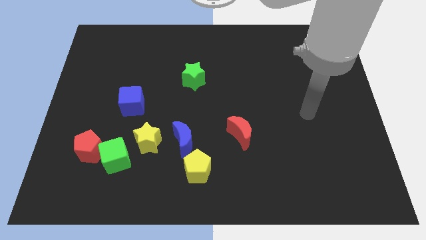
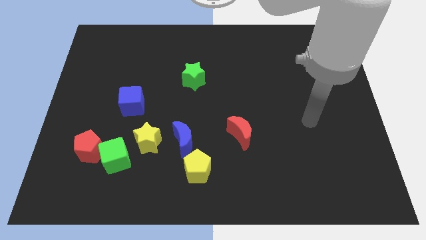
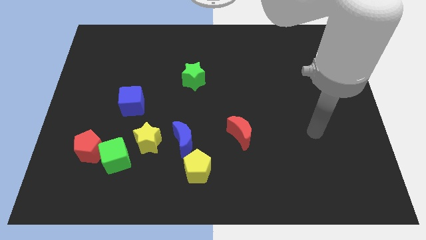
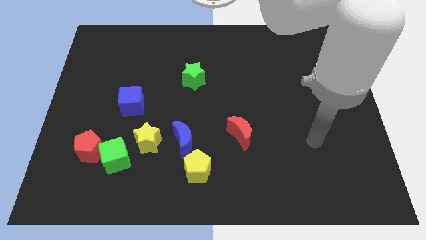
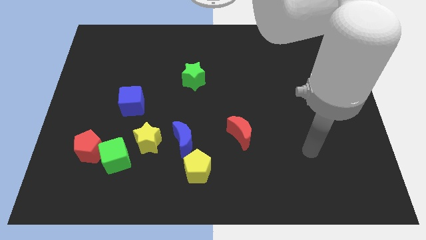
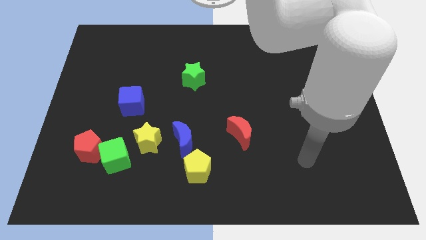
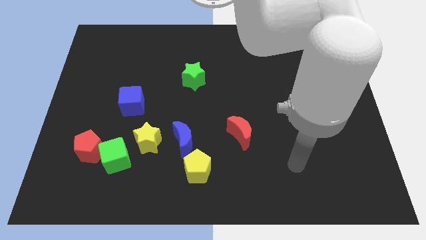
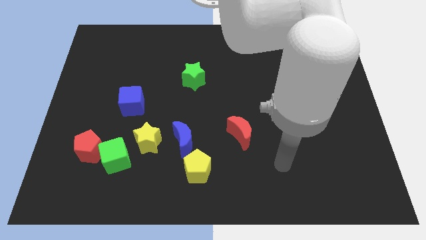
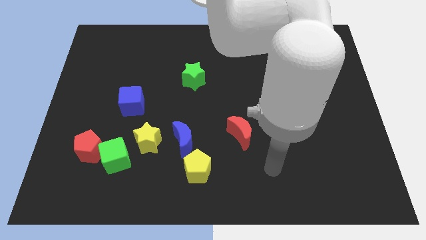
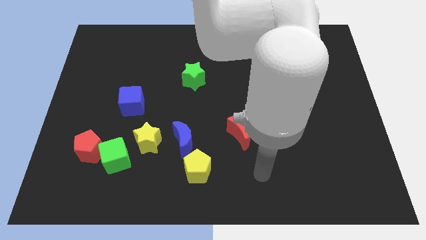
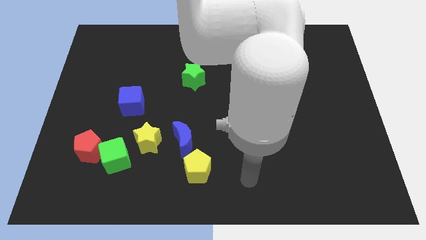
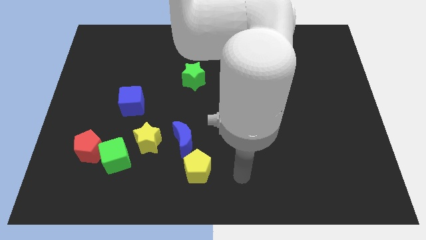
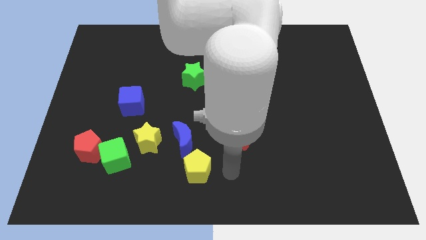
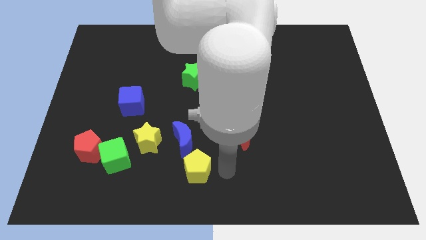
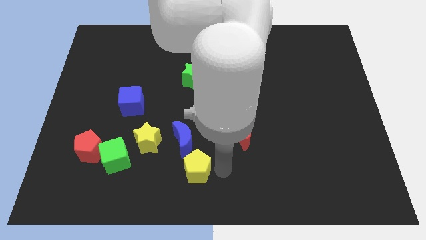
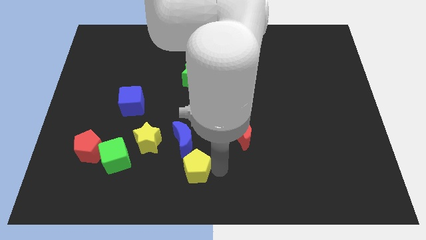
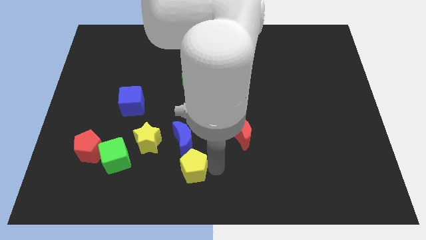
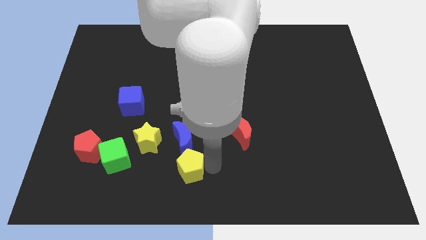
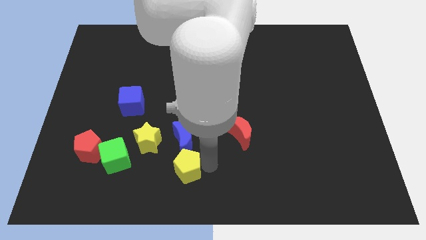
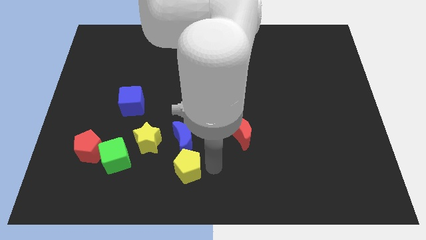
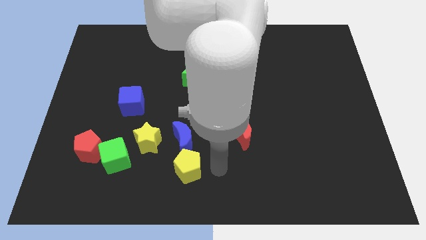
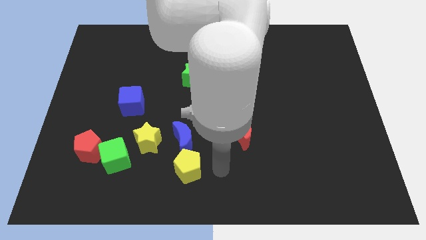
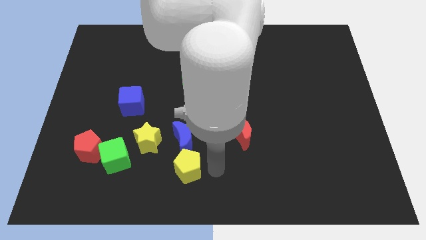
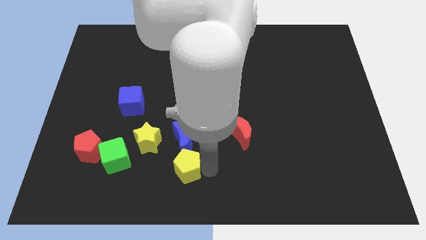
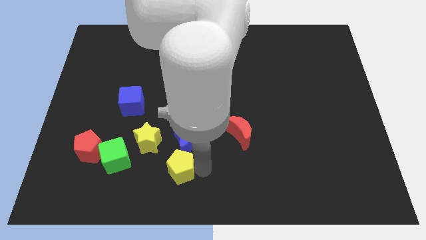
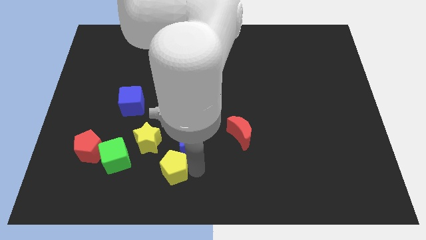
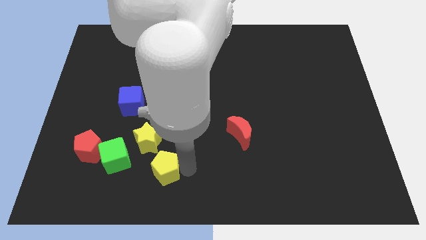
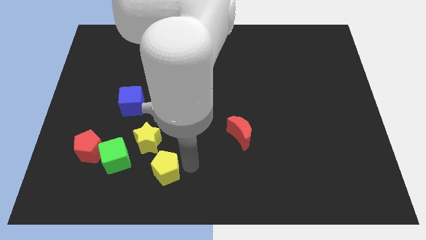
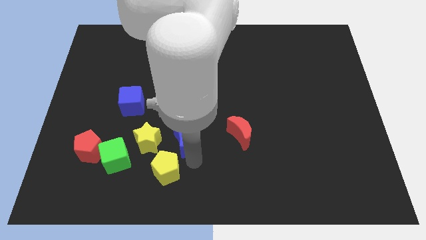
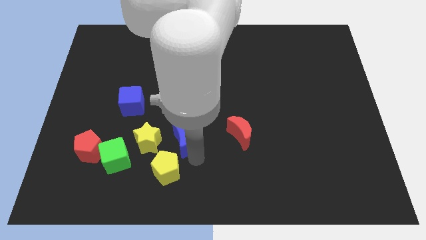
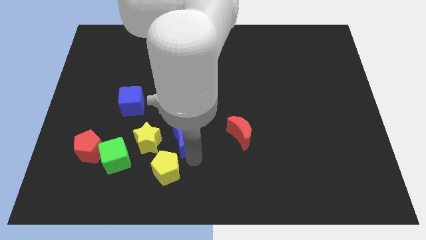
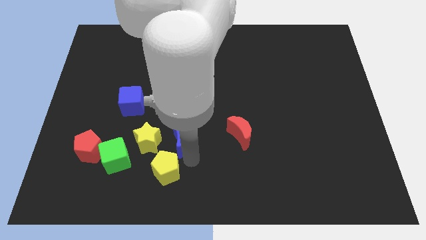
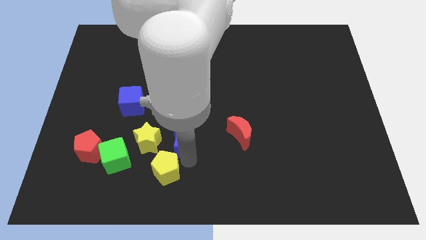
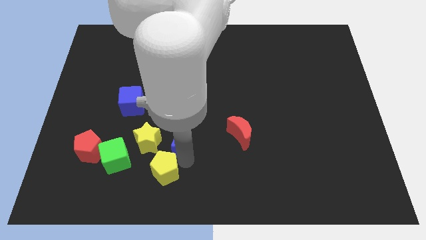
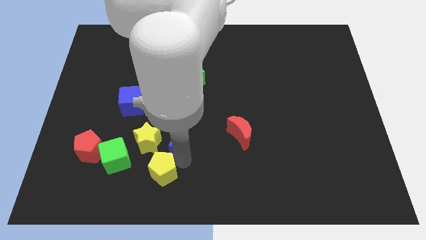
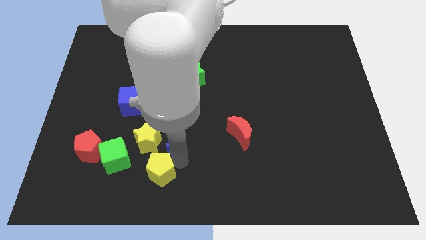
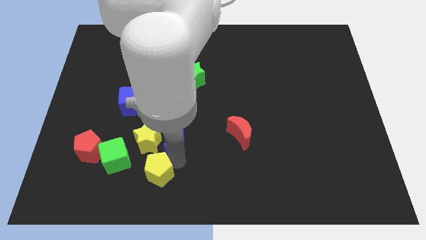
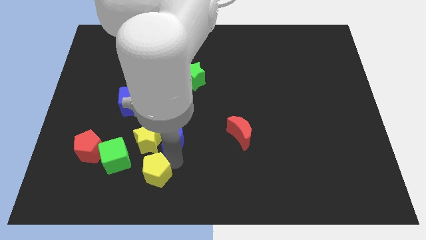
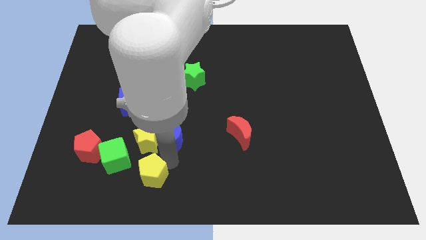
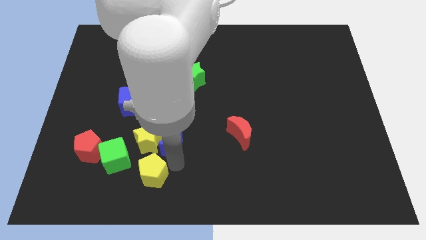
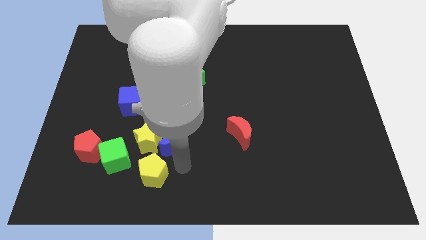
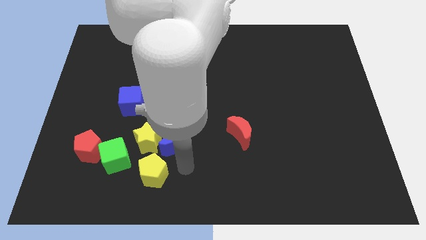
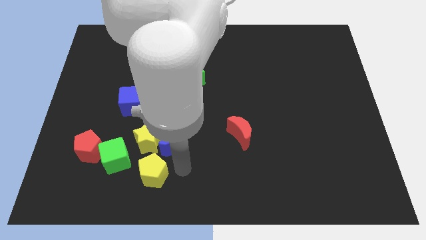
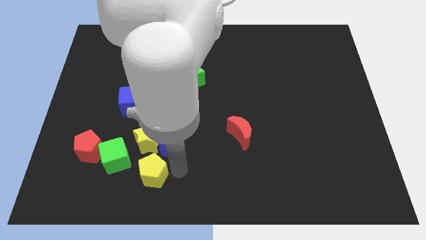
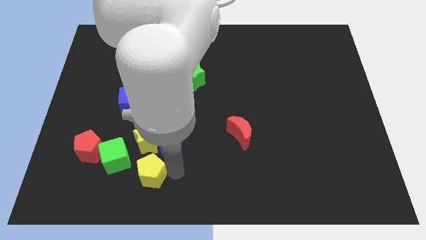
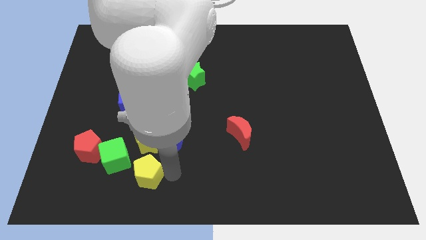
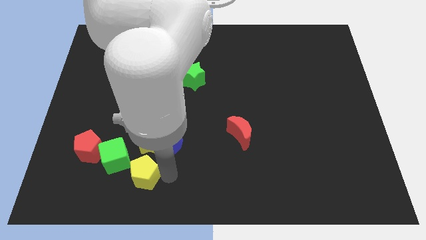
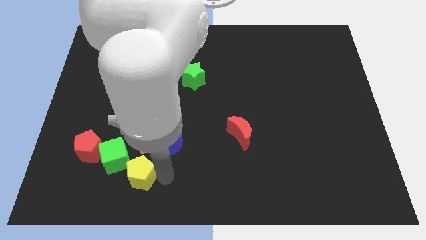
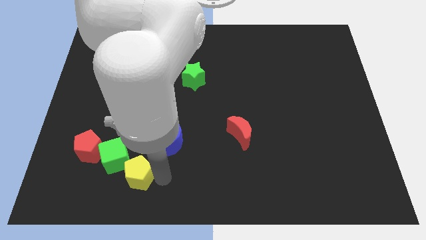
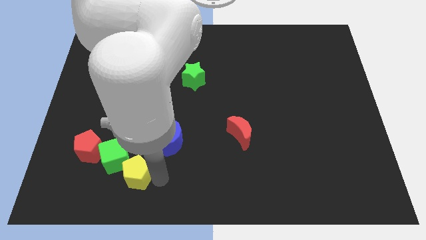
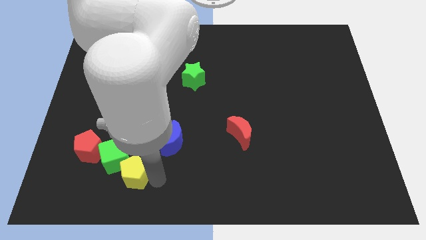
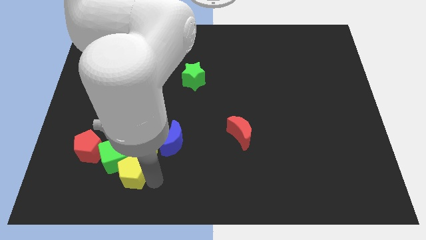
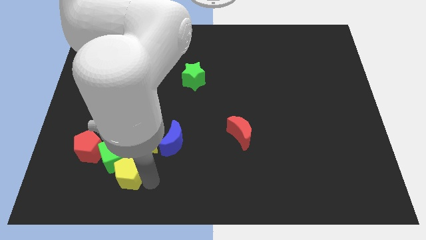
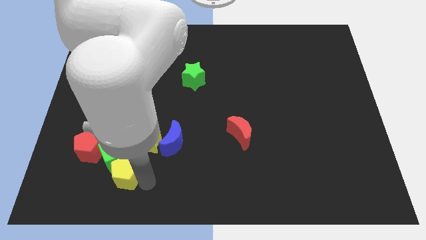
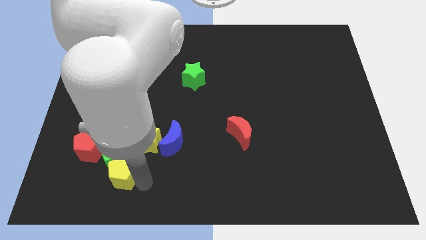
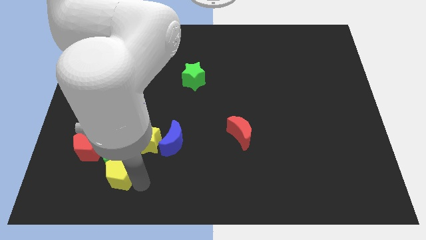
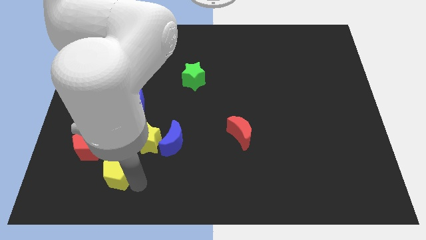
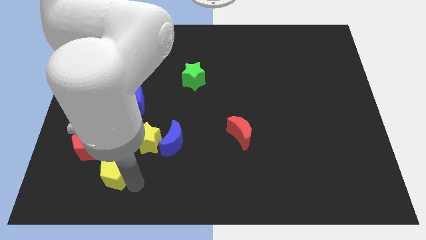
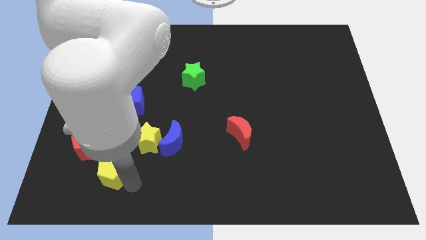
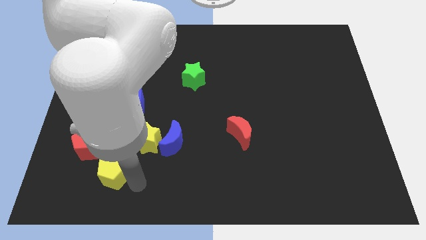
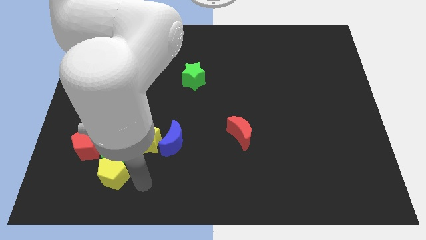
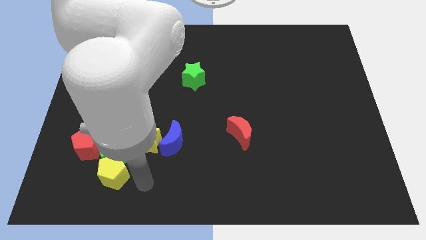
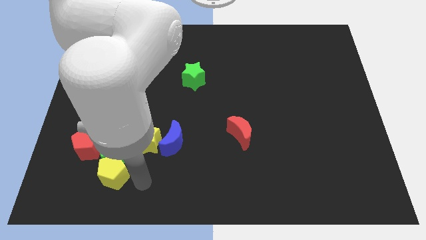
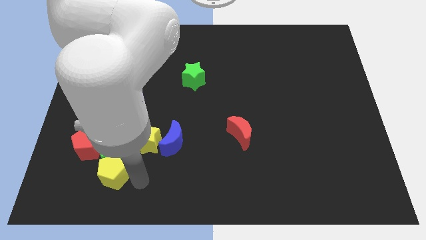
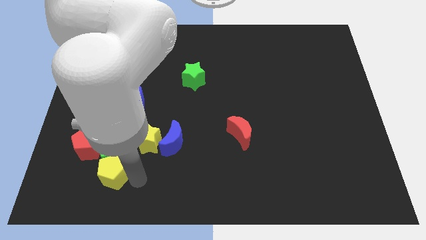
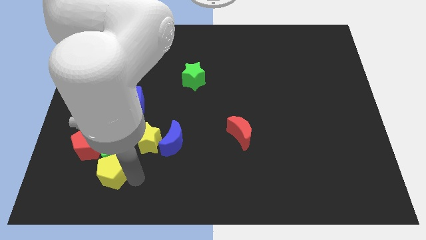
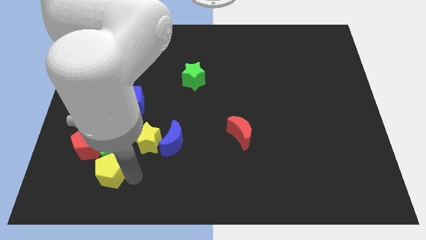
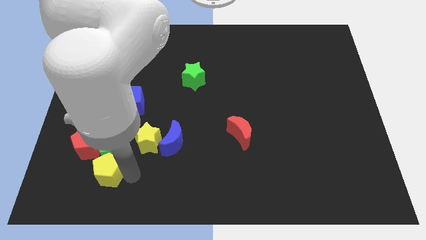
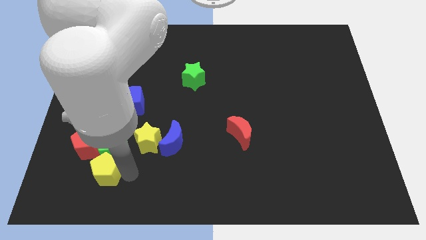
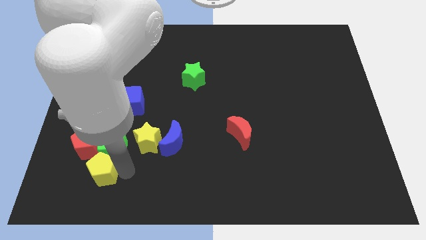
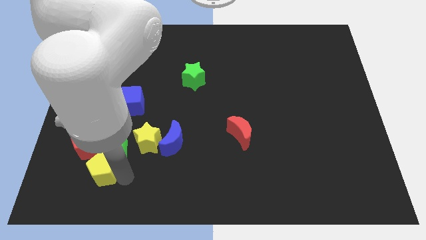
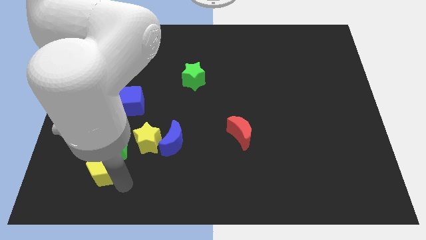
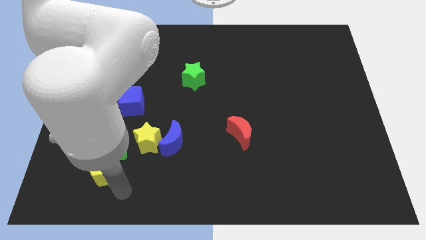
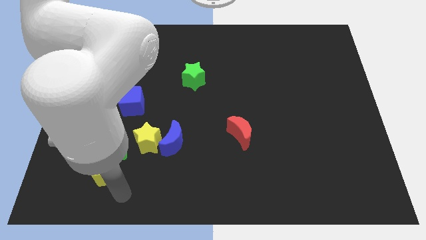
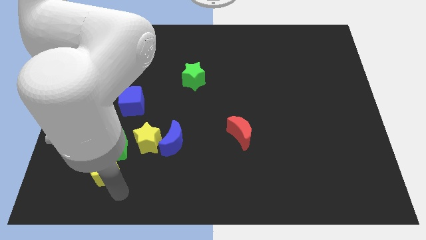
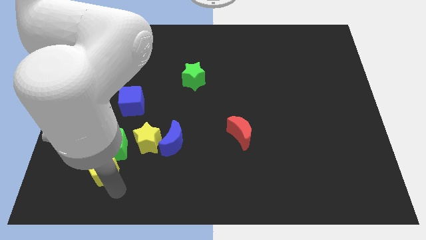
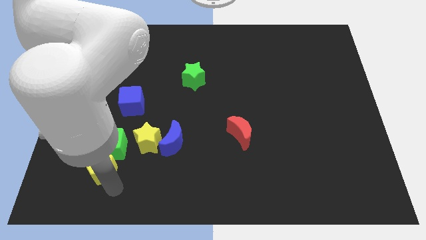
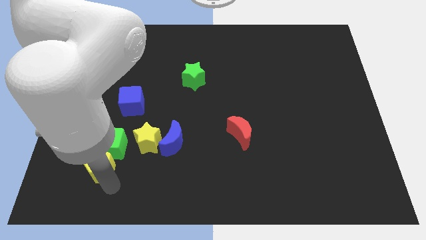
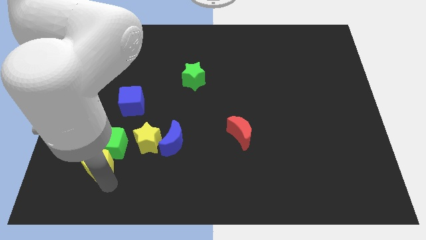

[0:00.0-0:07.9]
put the yellow pentagon close to the red pentagon
